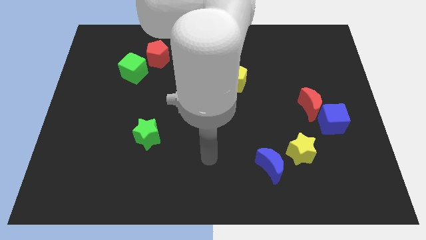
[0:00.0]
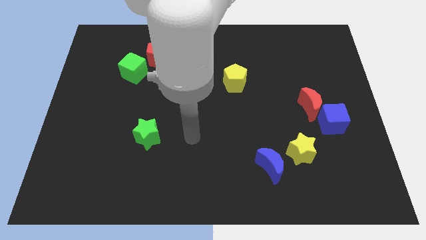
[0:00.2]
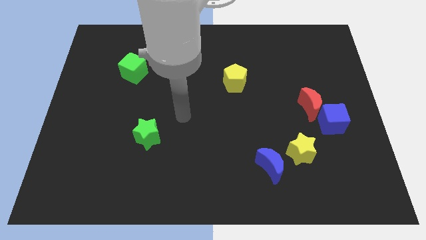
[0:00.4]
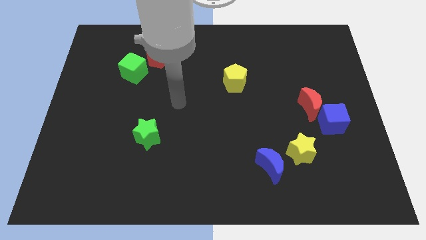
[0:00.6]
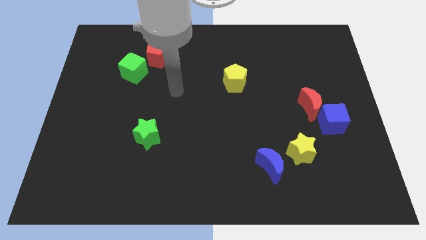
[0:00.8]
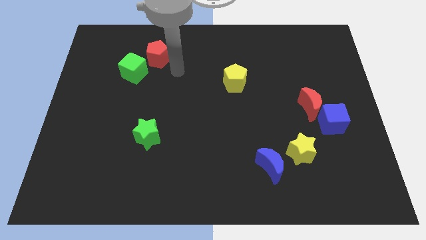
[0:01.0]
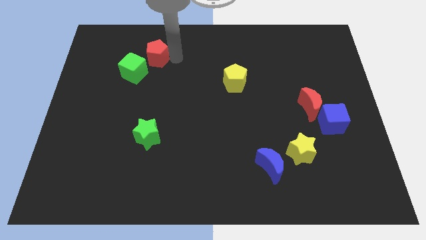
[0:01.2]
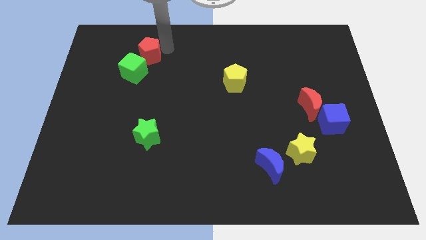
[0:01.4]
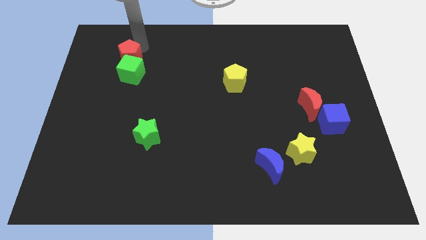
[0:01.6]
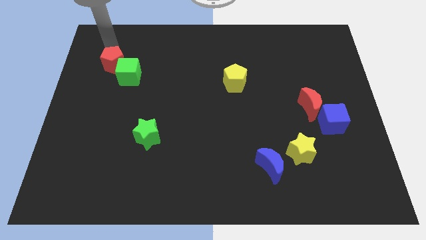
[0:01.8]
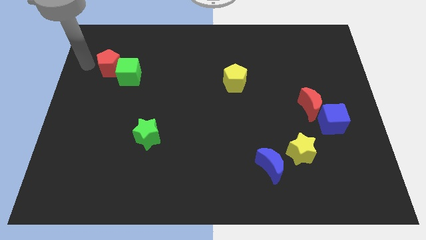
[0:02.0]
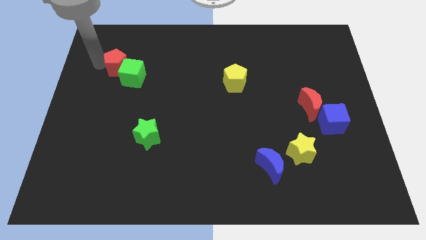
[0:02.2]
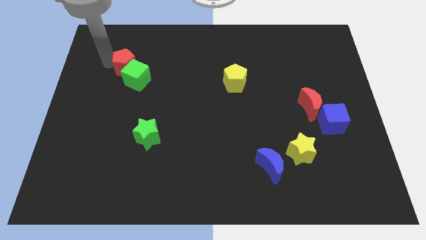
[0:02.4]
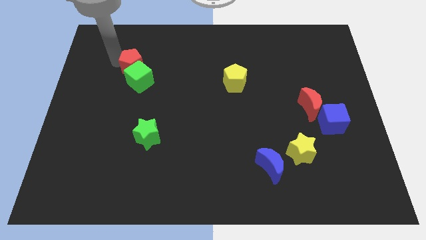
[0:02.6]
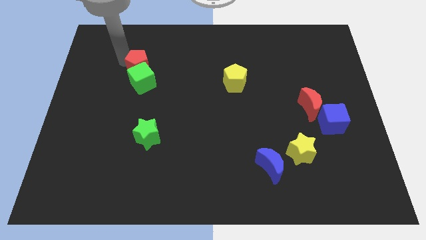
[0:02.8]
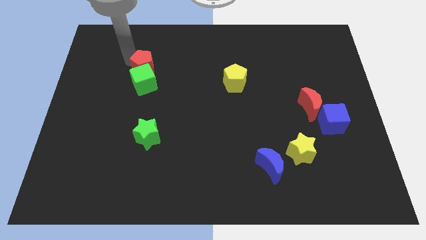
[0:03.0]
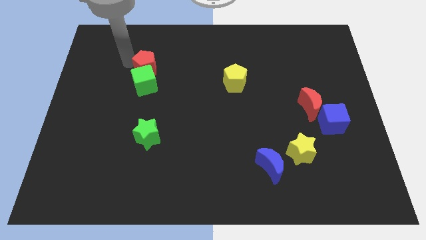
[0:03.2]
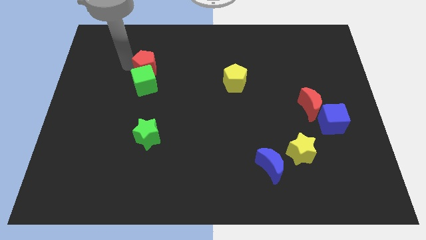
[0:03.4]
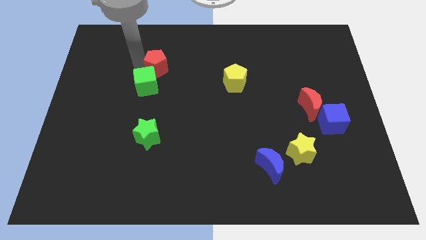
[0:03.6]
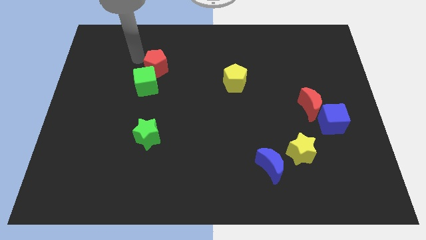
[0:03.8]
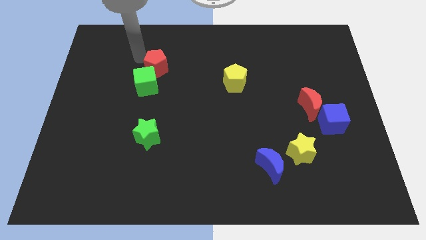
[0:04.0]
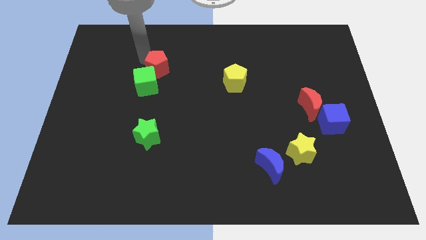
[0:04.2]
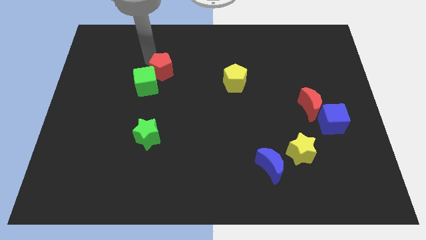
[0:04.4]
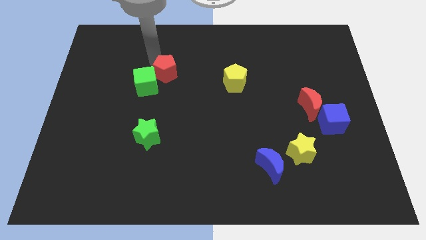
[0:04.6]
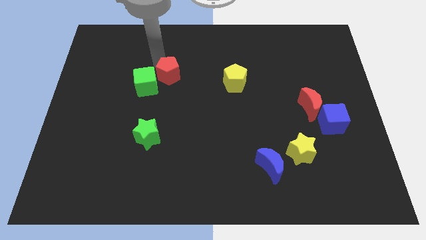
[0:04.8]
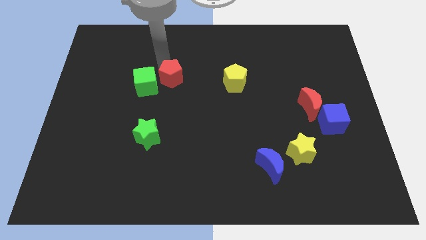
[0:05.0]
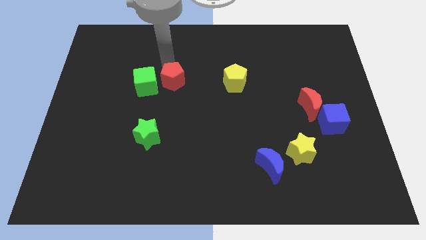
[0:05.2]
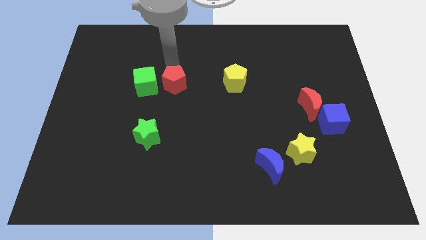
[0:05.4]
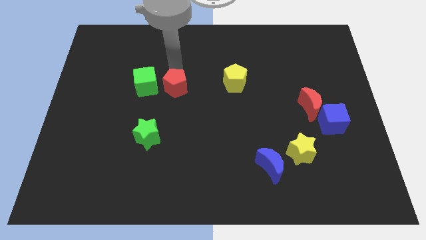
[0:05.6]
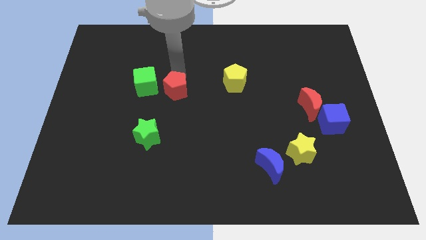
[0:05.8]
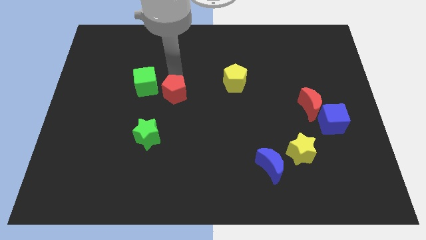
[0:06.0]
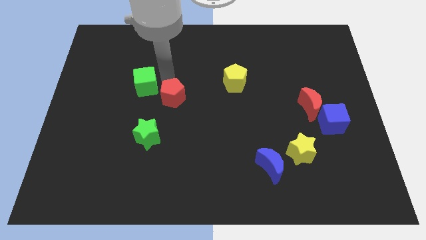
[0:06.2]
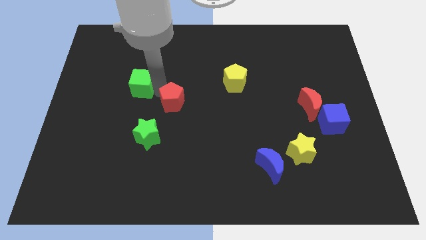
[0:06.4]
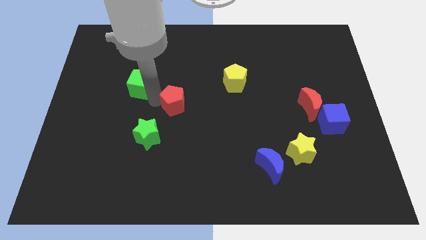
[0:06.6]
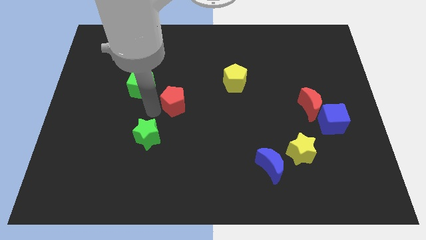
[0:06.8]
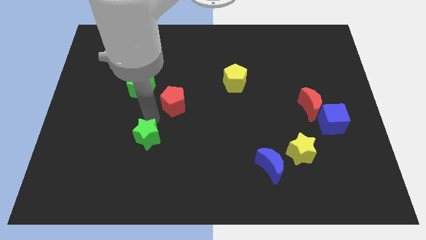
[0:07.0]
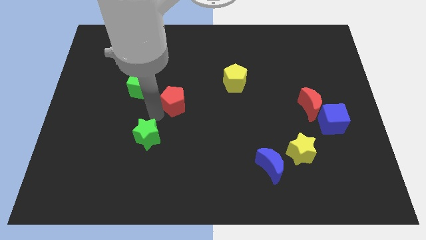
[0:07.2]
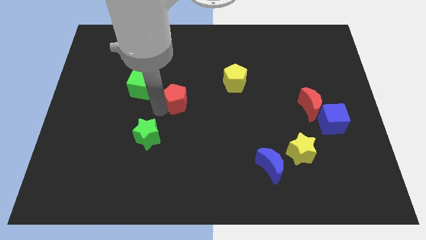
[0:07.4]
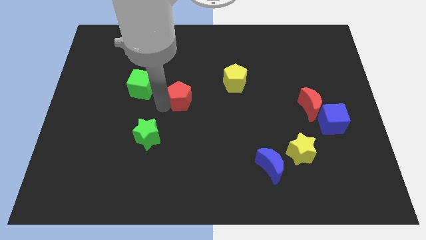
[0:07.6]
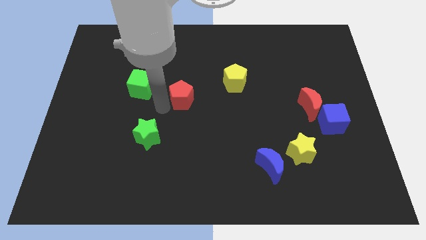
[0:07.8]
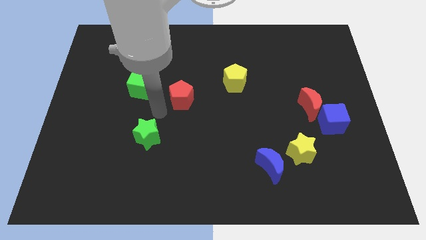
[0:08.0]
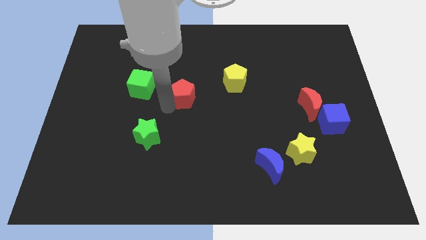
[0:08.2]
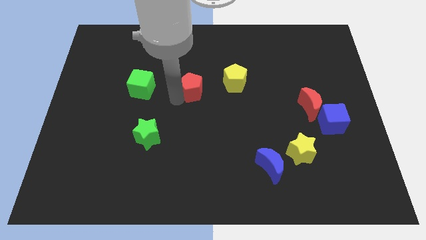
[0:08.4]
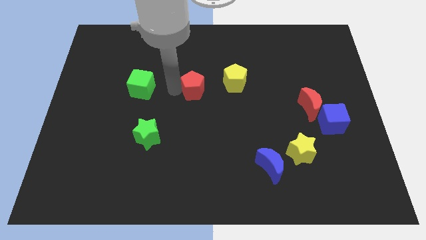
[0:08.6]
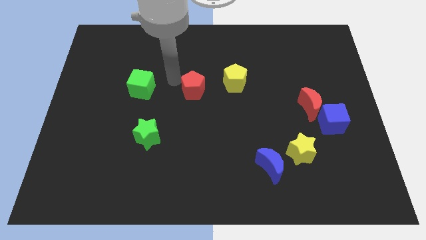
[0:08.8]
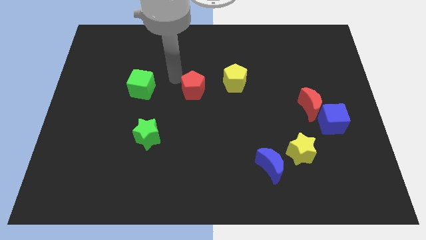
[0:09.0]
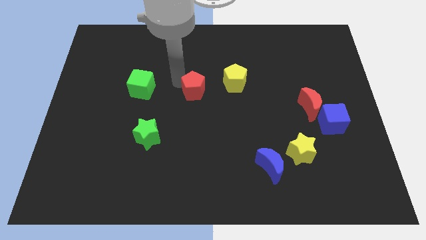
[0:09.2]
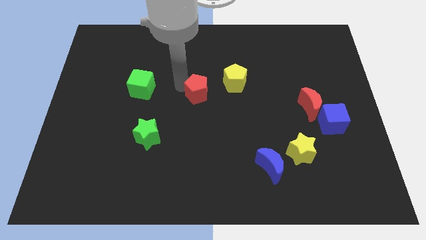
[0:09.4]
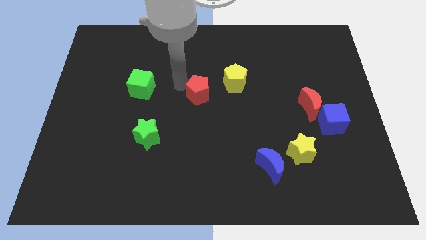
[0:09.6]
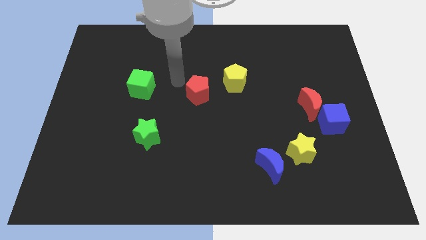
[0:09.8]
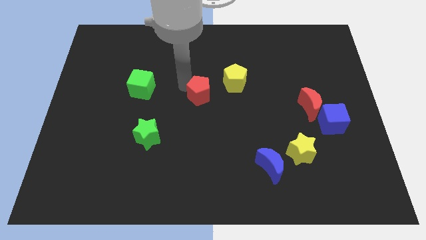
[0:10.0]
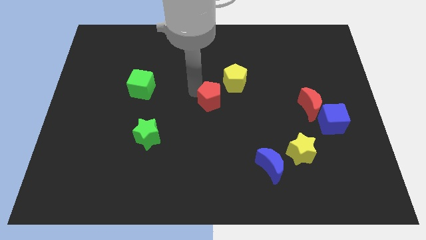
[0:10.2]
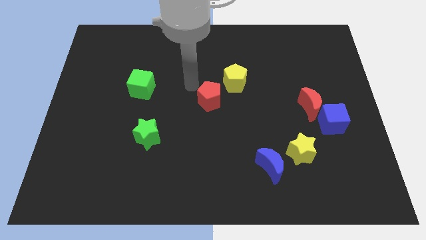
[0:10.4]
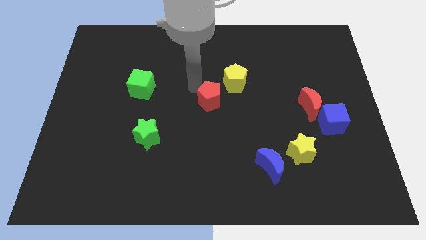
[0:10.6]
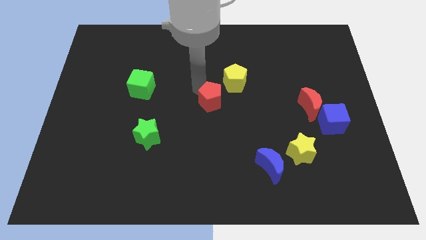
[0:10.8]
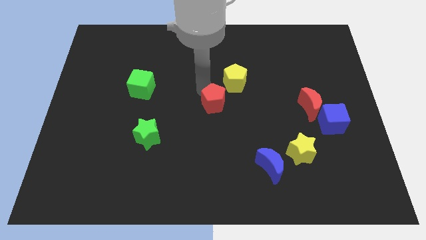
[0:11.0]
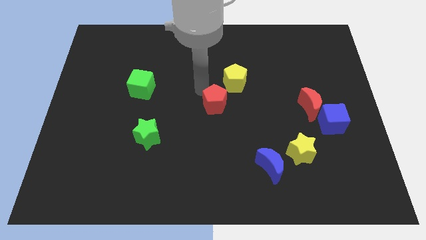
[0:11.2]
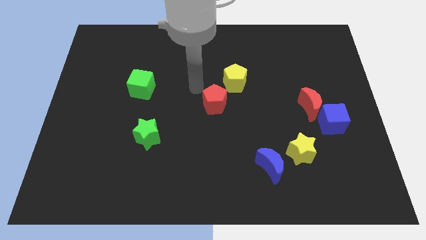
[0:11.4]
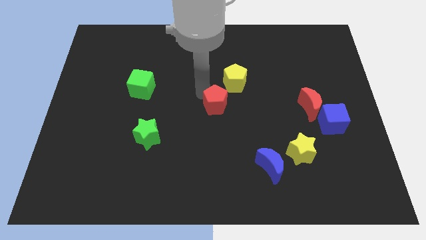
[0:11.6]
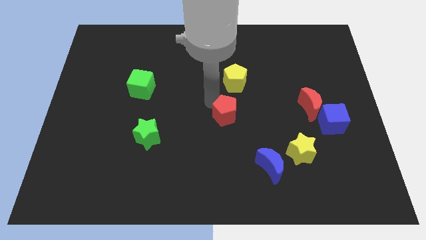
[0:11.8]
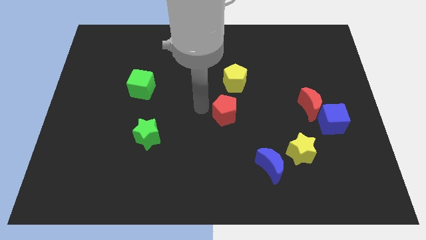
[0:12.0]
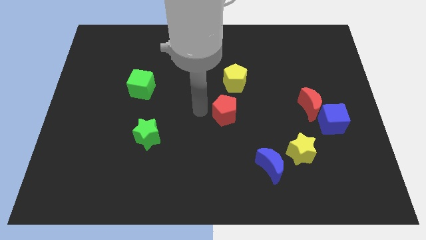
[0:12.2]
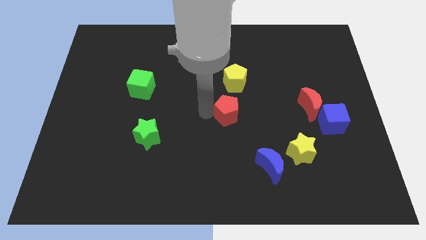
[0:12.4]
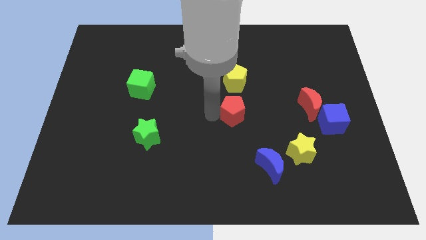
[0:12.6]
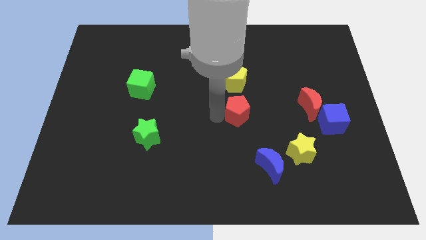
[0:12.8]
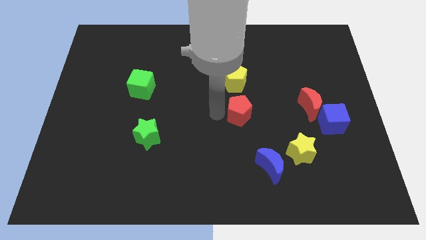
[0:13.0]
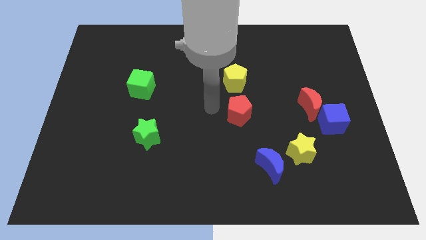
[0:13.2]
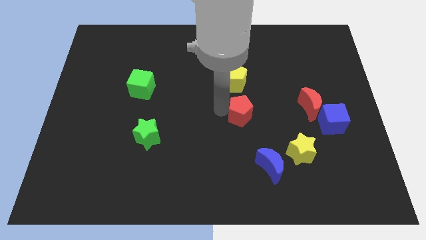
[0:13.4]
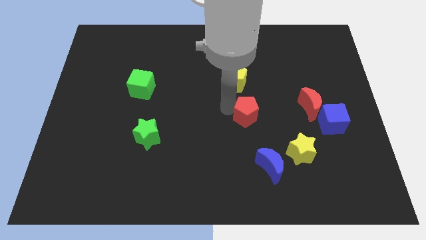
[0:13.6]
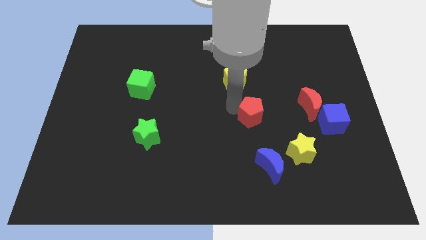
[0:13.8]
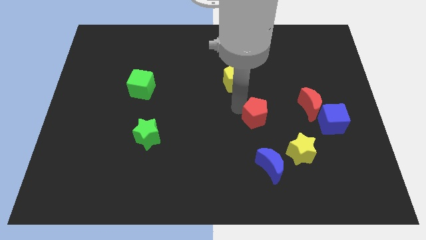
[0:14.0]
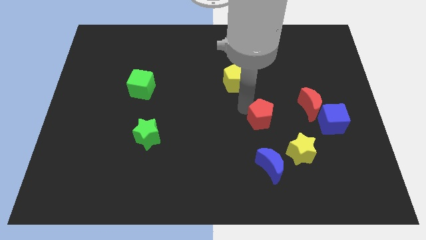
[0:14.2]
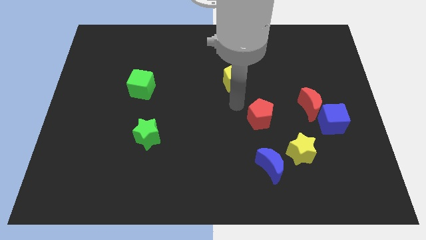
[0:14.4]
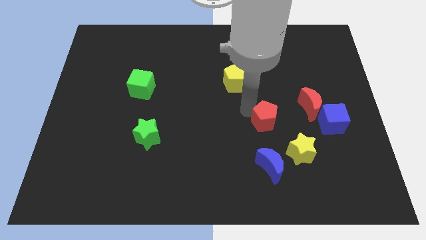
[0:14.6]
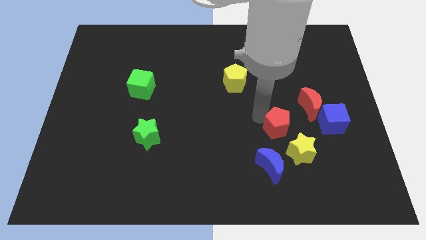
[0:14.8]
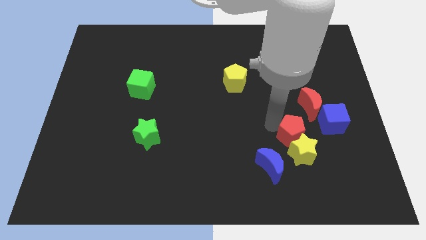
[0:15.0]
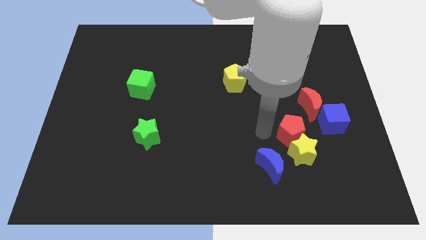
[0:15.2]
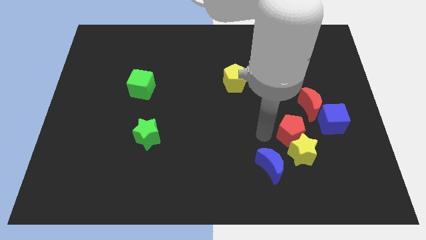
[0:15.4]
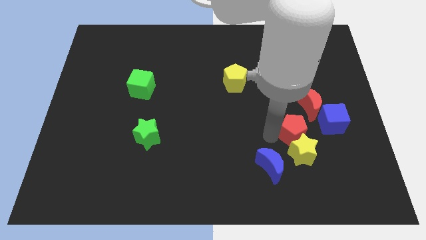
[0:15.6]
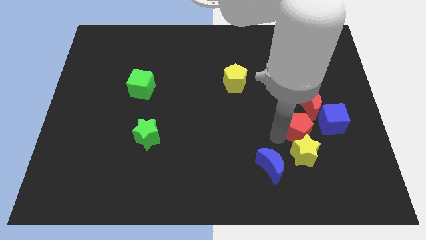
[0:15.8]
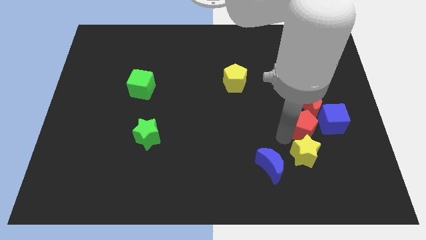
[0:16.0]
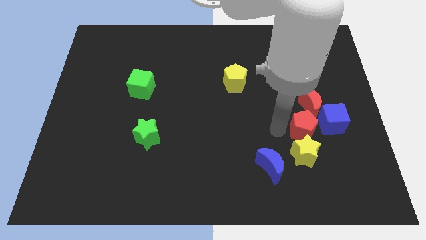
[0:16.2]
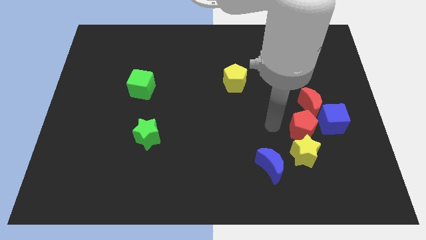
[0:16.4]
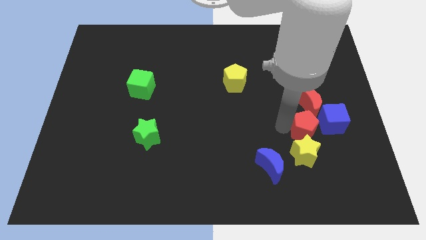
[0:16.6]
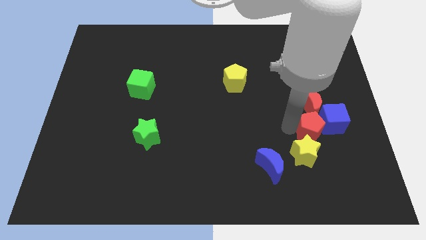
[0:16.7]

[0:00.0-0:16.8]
push the red pentagon towards the blue cube

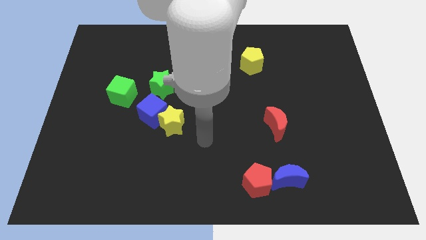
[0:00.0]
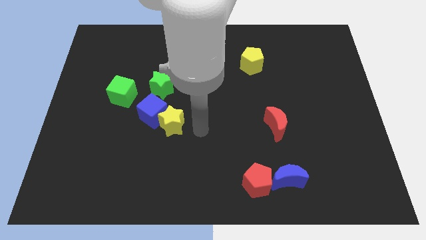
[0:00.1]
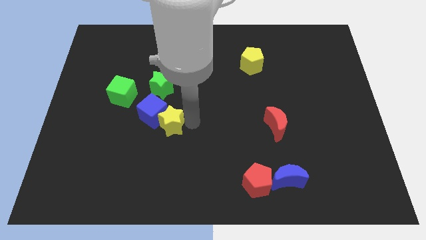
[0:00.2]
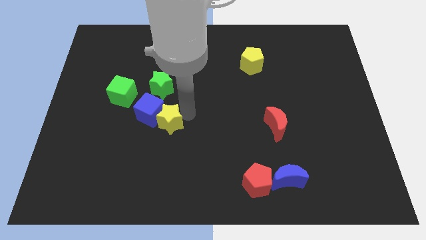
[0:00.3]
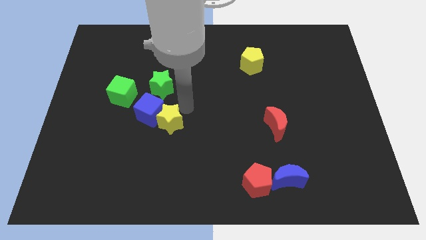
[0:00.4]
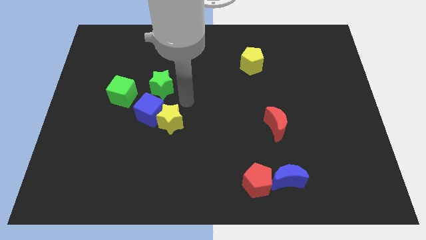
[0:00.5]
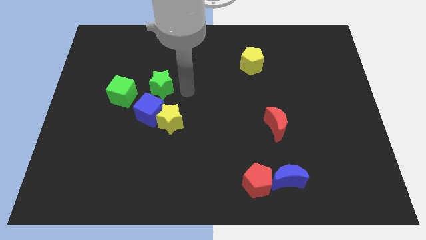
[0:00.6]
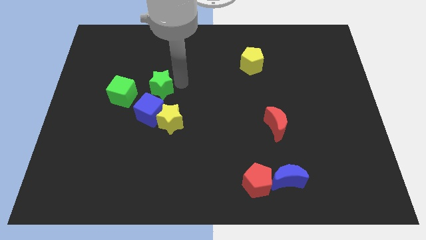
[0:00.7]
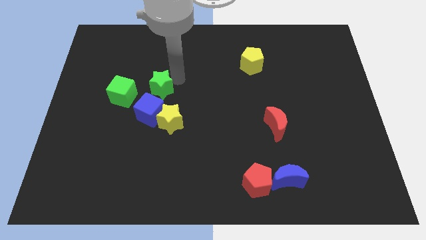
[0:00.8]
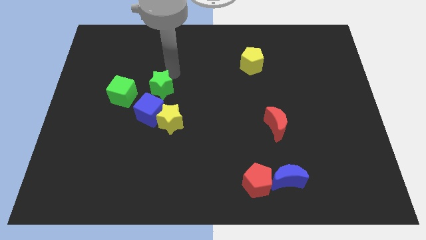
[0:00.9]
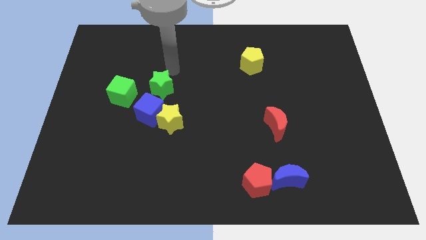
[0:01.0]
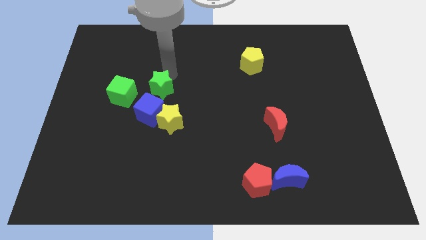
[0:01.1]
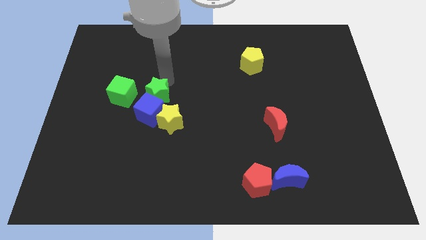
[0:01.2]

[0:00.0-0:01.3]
slide the green star next to the blue cube
